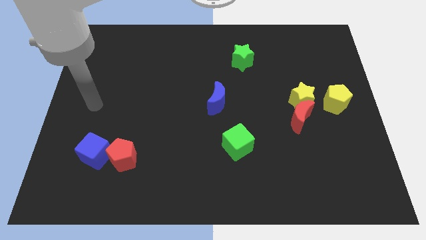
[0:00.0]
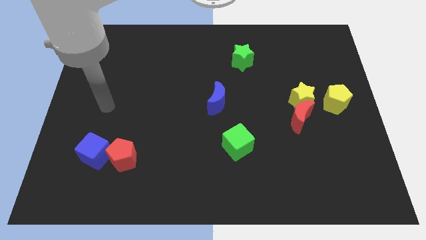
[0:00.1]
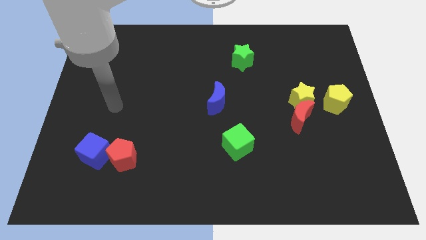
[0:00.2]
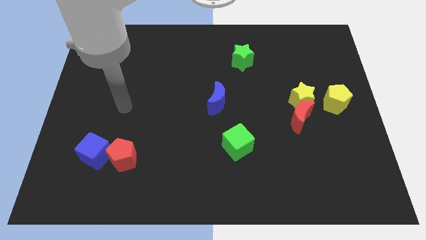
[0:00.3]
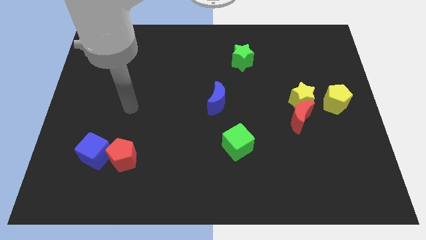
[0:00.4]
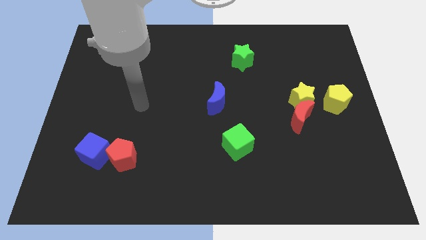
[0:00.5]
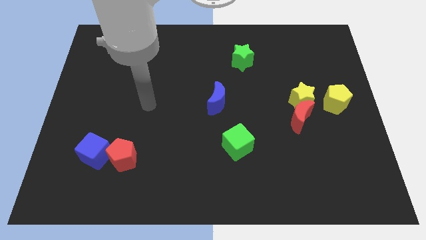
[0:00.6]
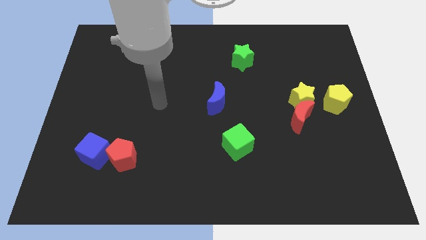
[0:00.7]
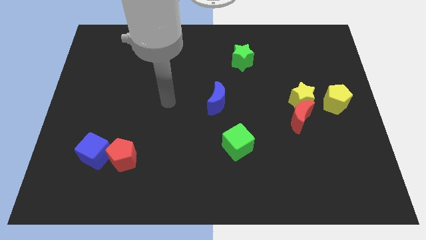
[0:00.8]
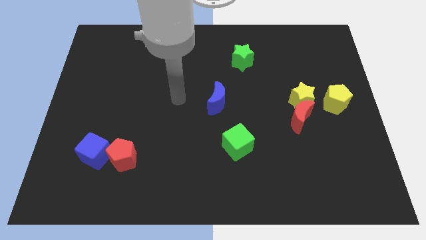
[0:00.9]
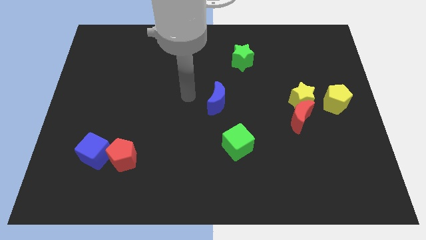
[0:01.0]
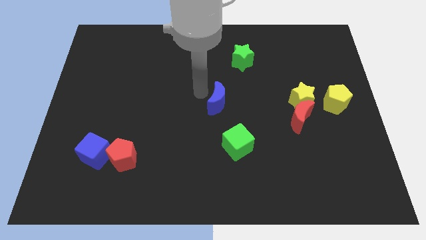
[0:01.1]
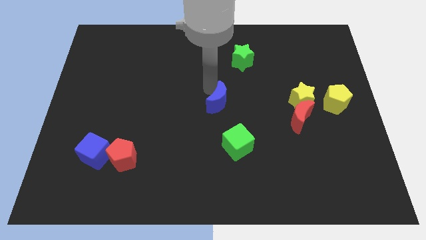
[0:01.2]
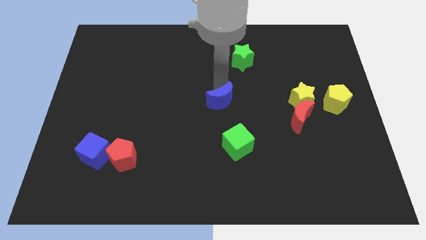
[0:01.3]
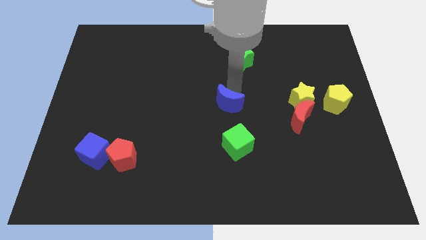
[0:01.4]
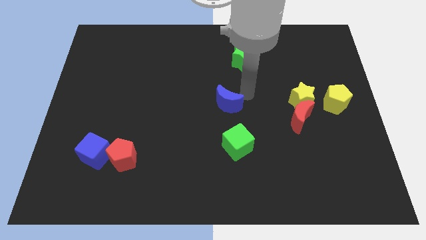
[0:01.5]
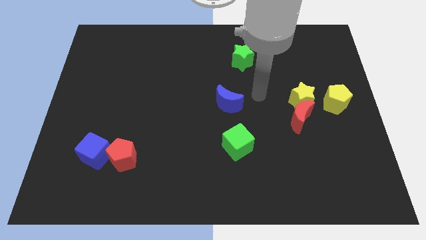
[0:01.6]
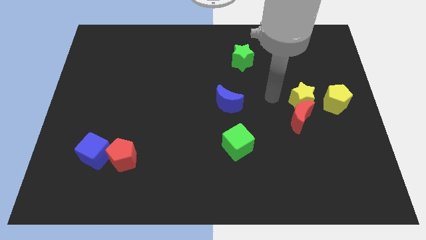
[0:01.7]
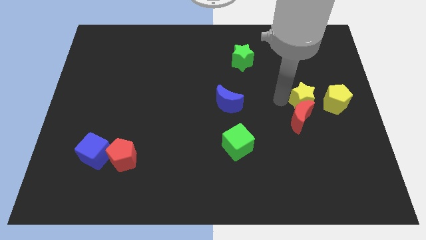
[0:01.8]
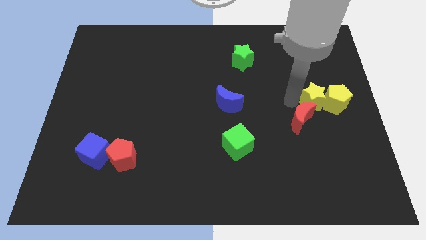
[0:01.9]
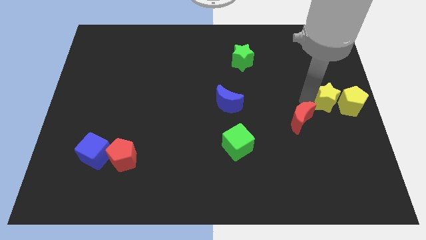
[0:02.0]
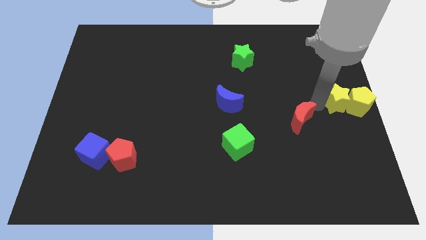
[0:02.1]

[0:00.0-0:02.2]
separate the red moon from the yellow star

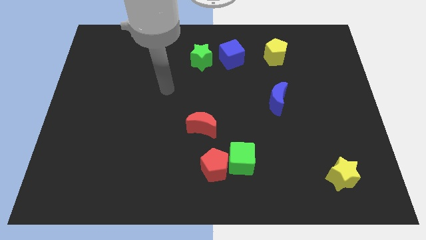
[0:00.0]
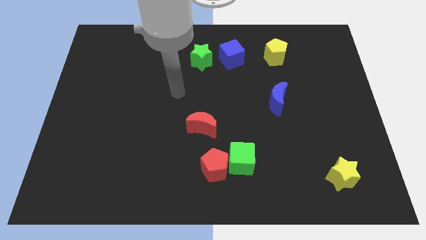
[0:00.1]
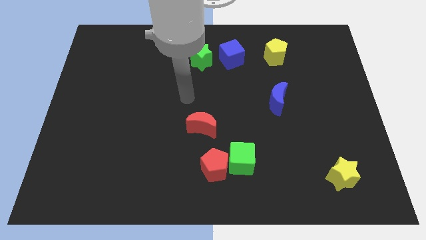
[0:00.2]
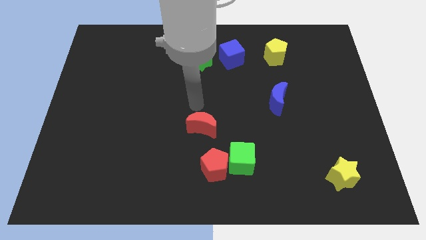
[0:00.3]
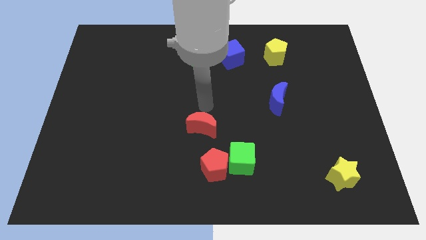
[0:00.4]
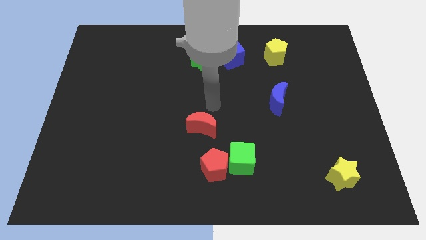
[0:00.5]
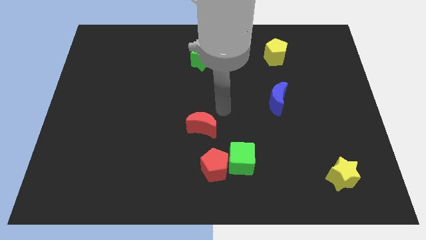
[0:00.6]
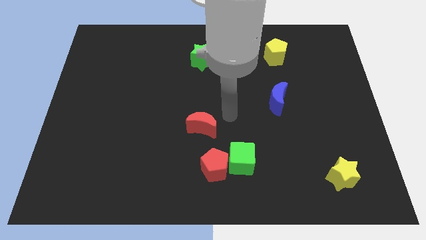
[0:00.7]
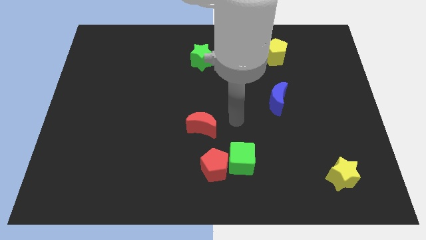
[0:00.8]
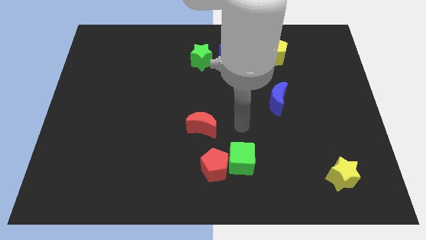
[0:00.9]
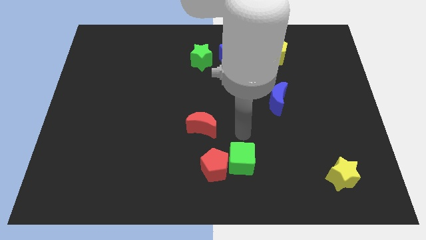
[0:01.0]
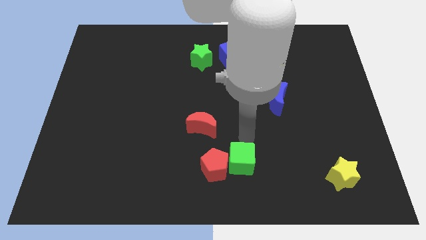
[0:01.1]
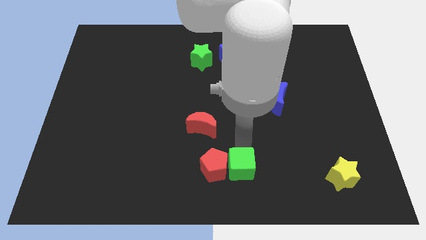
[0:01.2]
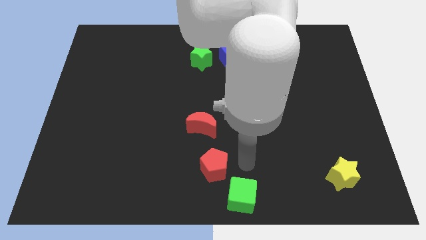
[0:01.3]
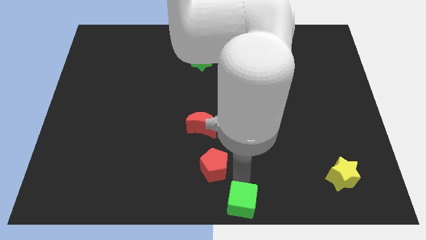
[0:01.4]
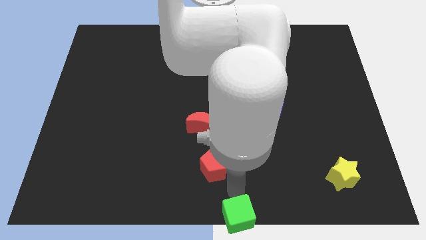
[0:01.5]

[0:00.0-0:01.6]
pull the red pentagon apart from the green cube

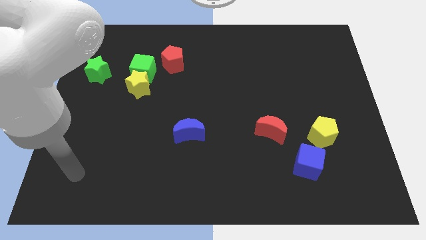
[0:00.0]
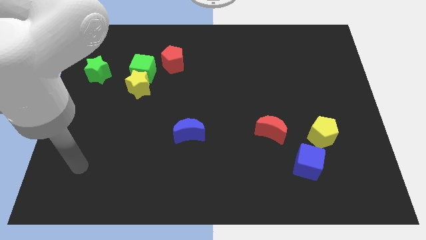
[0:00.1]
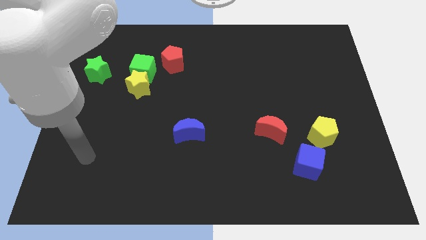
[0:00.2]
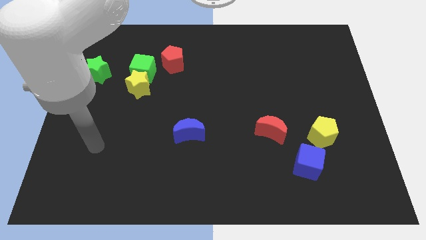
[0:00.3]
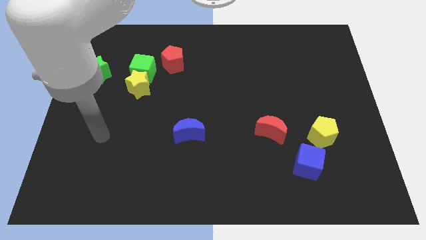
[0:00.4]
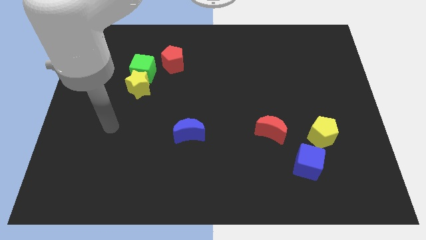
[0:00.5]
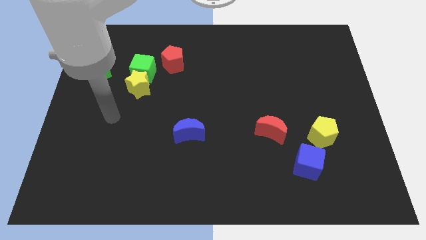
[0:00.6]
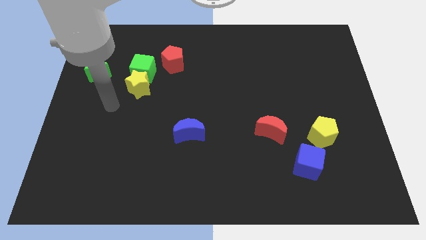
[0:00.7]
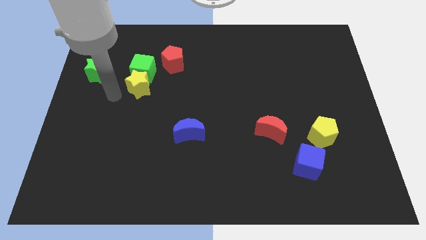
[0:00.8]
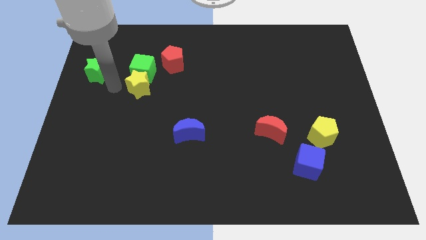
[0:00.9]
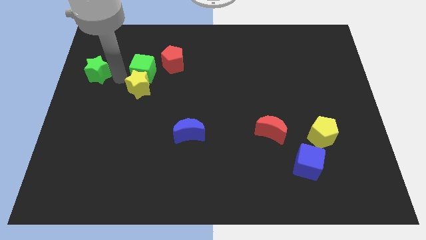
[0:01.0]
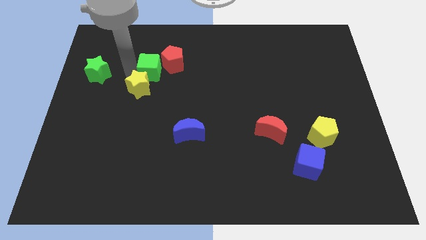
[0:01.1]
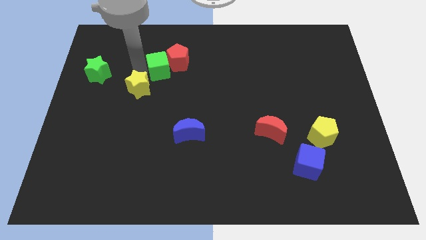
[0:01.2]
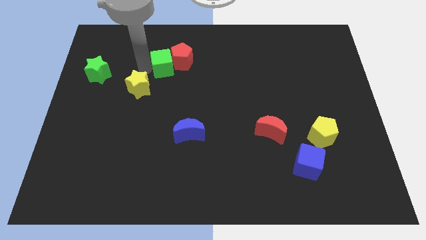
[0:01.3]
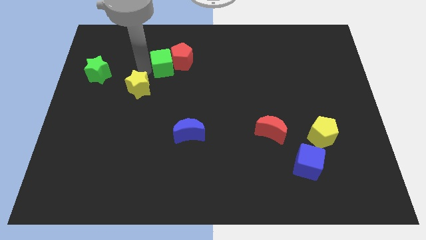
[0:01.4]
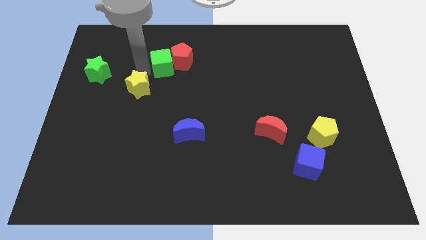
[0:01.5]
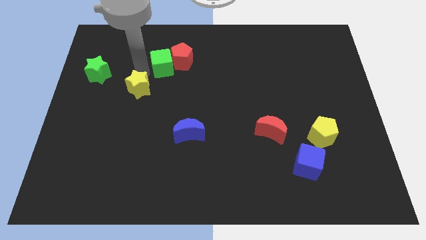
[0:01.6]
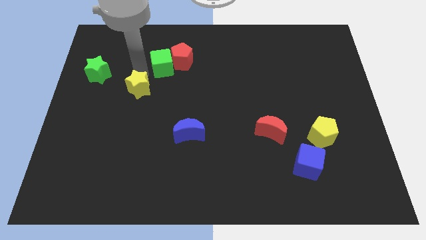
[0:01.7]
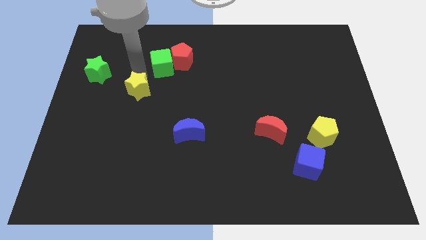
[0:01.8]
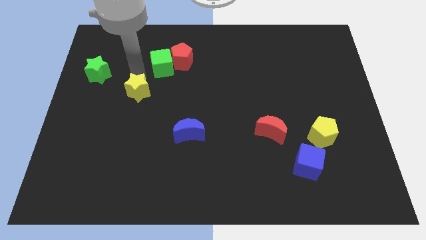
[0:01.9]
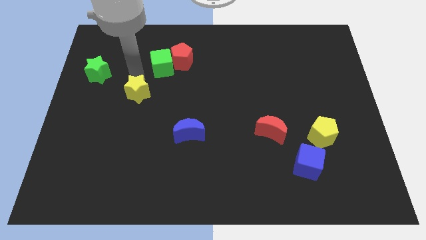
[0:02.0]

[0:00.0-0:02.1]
separate the yellow star from the green cube

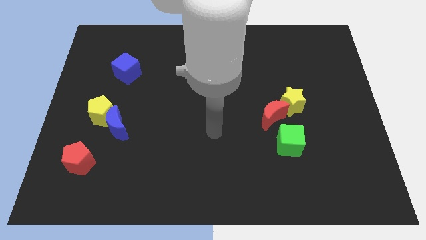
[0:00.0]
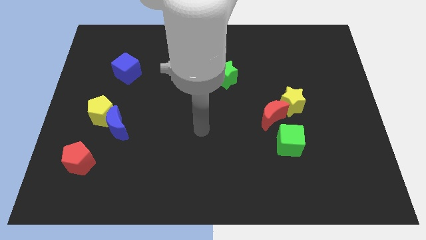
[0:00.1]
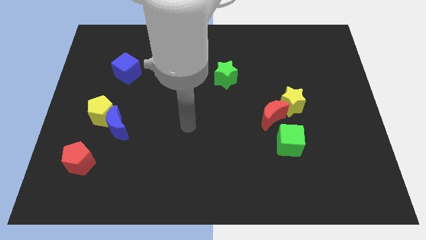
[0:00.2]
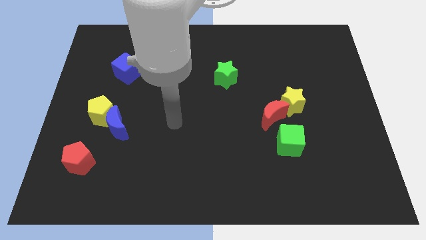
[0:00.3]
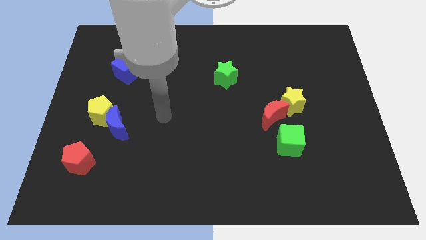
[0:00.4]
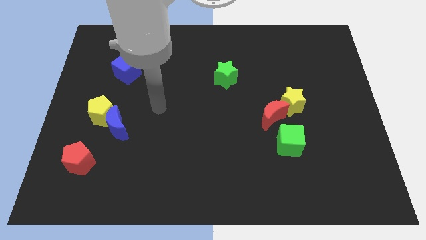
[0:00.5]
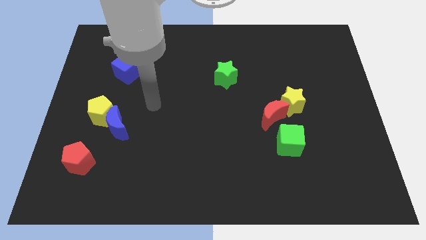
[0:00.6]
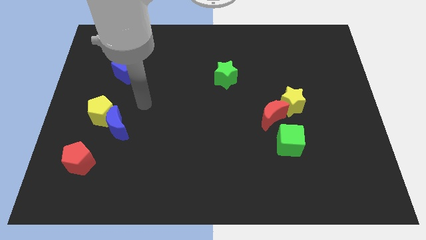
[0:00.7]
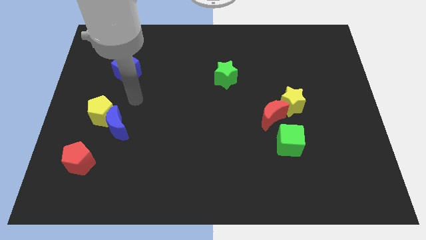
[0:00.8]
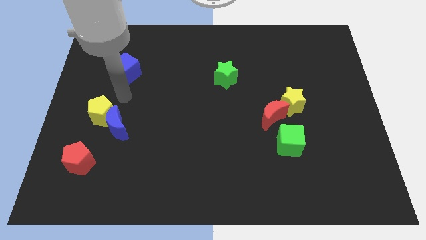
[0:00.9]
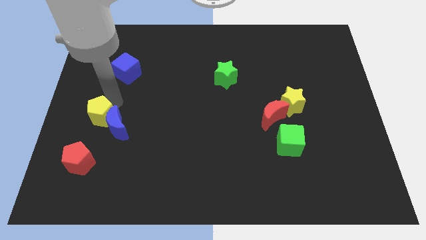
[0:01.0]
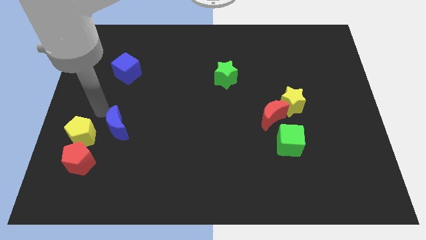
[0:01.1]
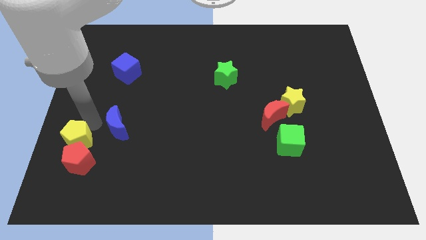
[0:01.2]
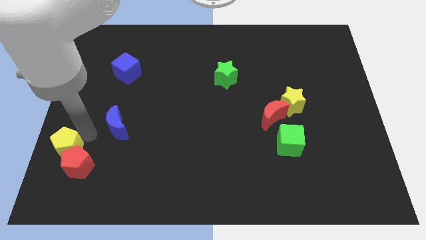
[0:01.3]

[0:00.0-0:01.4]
separate the blue moon from the yellow pentagon

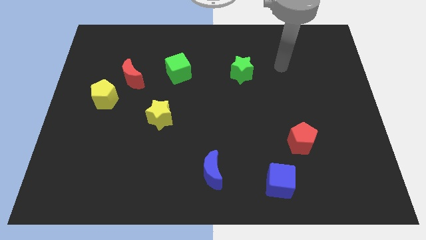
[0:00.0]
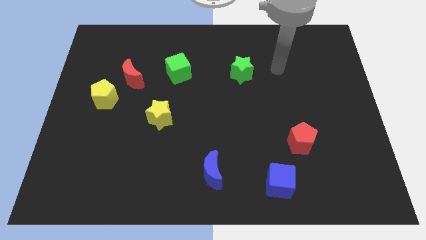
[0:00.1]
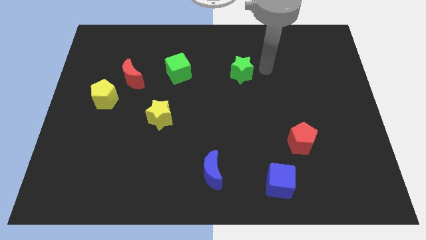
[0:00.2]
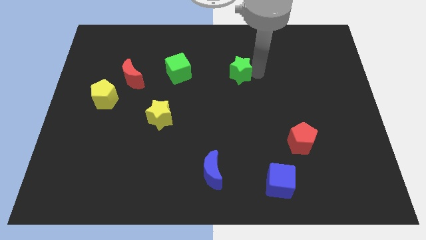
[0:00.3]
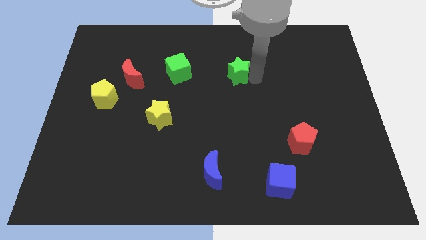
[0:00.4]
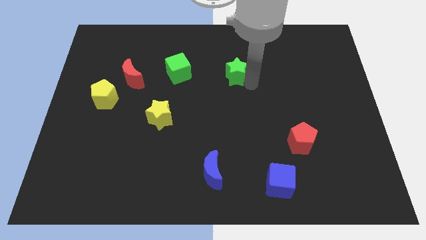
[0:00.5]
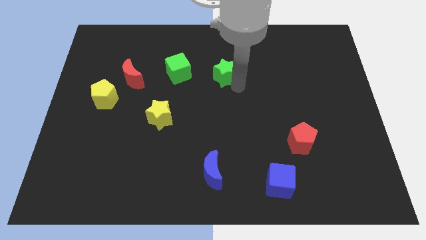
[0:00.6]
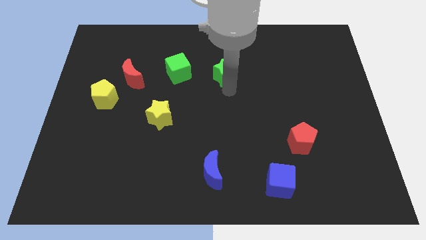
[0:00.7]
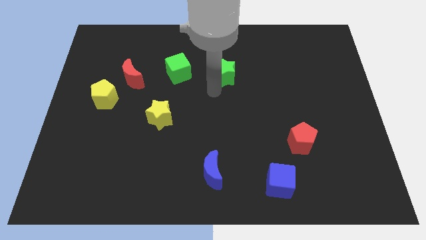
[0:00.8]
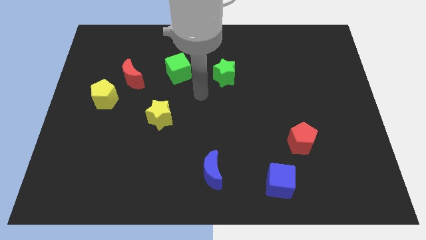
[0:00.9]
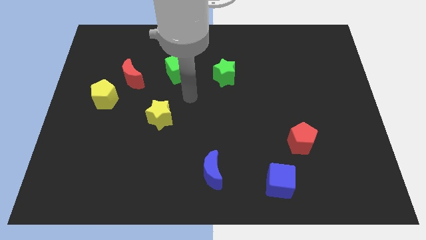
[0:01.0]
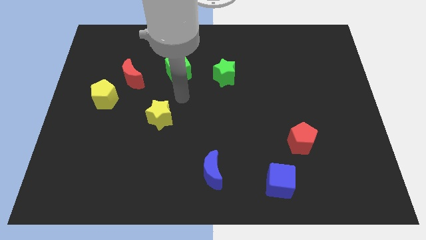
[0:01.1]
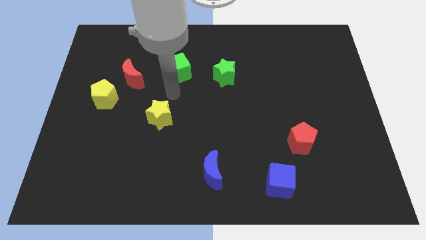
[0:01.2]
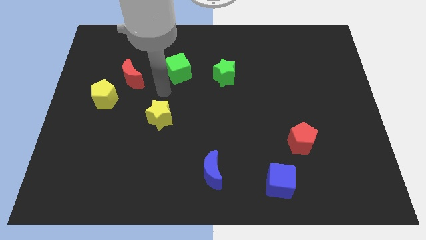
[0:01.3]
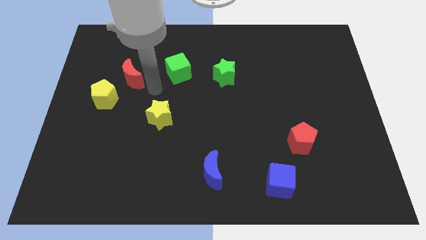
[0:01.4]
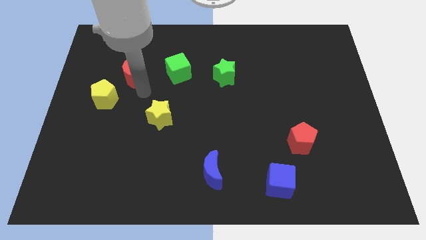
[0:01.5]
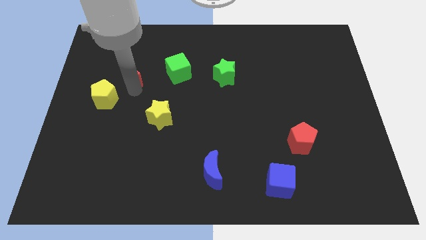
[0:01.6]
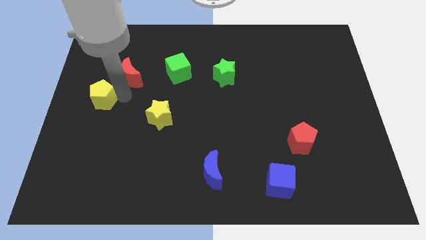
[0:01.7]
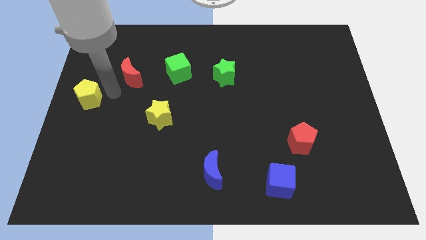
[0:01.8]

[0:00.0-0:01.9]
move the red moon away from the yellow pentagon

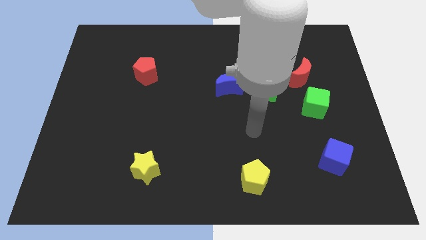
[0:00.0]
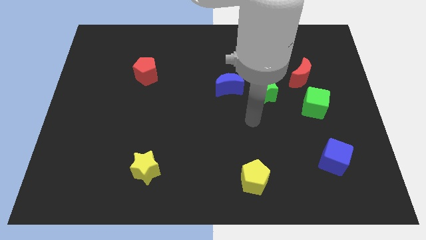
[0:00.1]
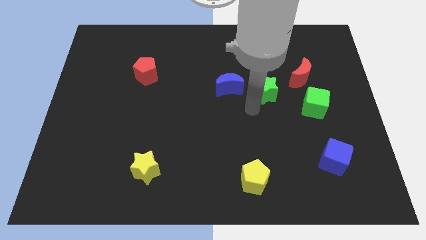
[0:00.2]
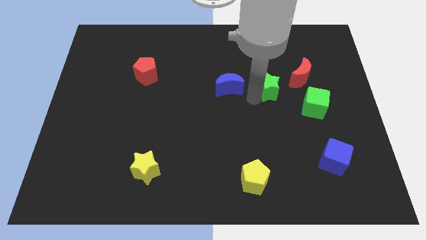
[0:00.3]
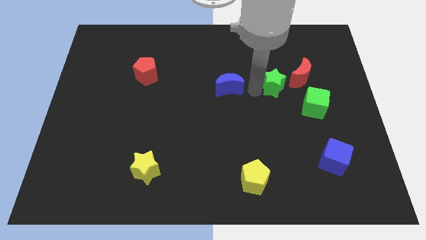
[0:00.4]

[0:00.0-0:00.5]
pull the blue moon apart from the green star
